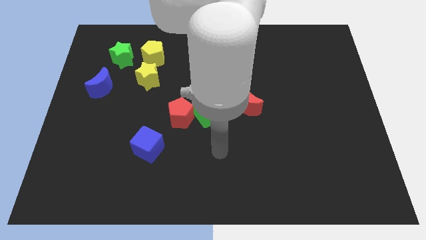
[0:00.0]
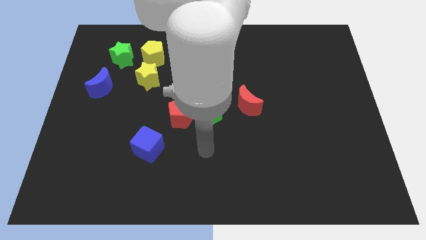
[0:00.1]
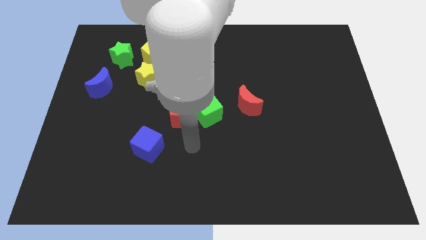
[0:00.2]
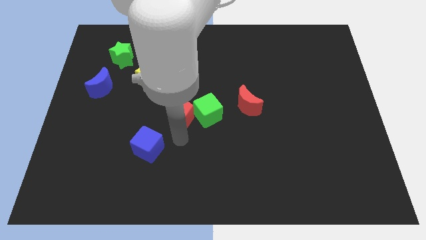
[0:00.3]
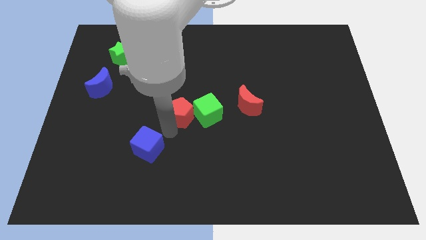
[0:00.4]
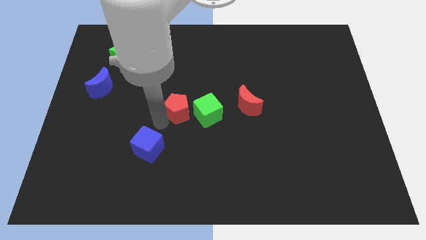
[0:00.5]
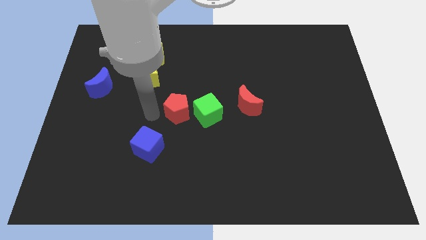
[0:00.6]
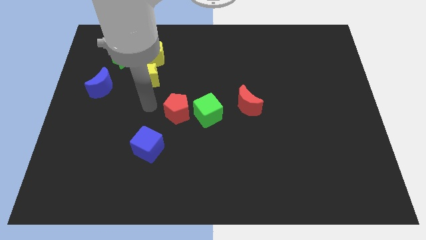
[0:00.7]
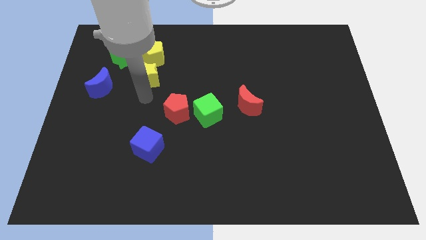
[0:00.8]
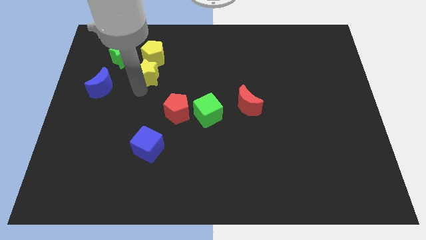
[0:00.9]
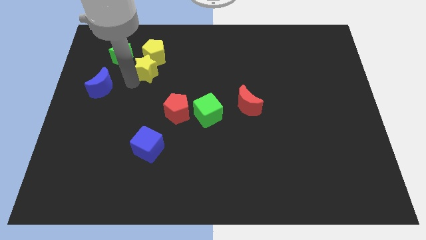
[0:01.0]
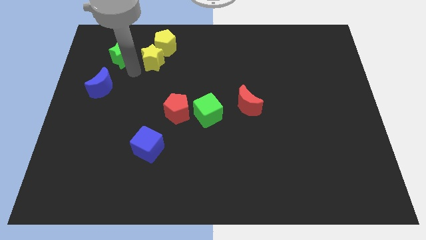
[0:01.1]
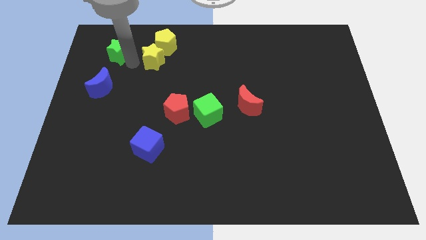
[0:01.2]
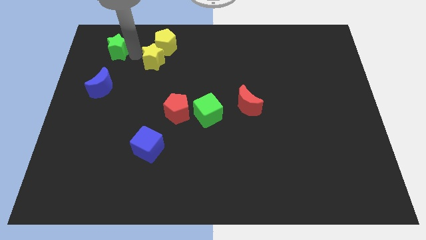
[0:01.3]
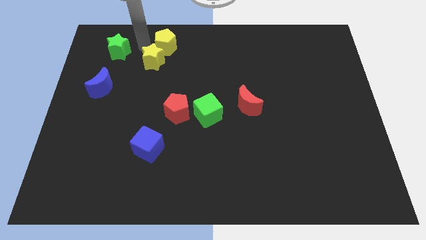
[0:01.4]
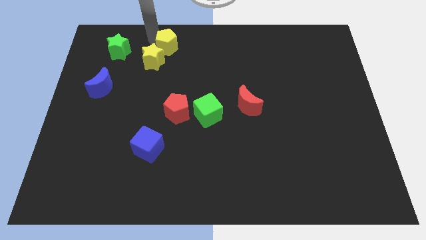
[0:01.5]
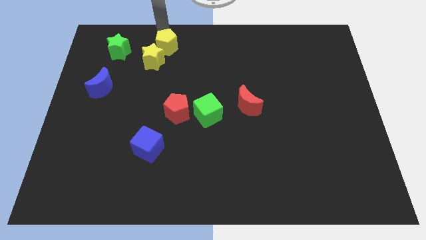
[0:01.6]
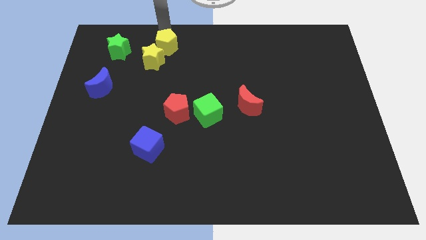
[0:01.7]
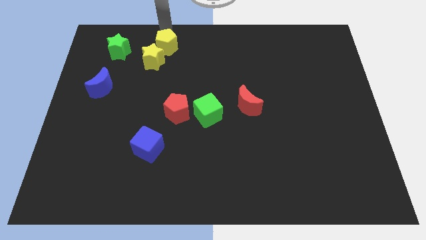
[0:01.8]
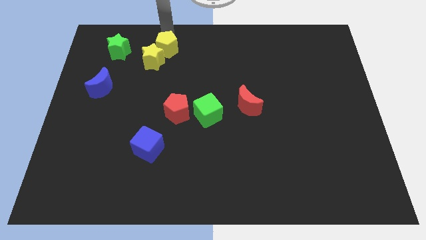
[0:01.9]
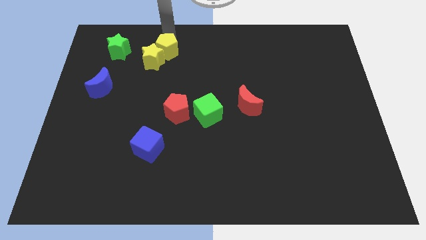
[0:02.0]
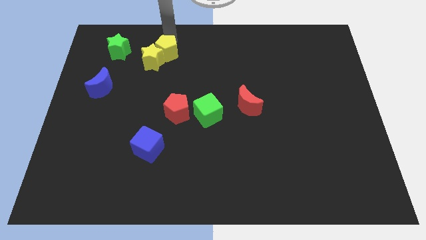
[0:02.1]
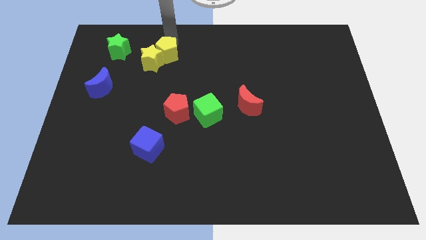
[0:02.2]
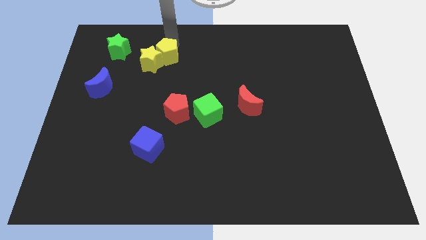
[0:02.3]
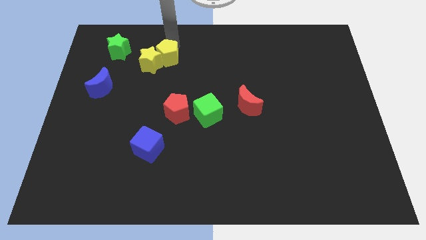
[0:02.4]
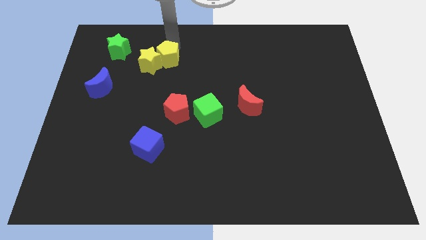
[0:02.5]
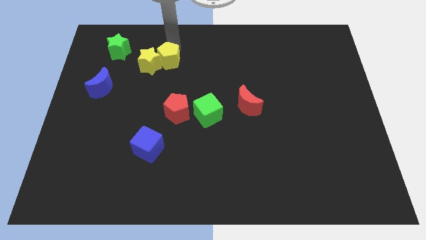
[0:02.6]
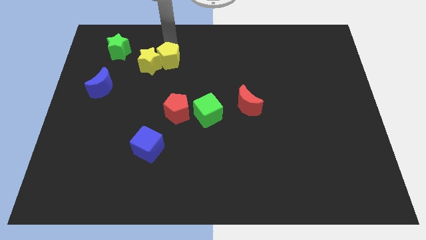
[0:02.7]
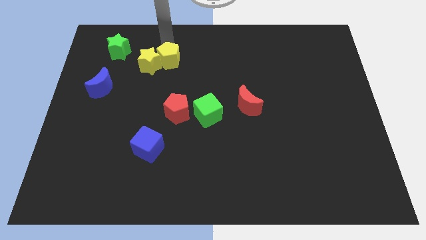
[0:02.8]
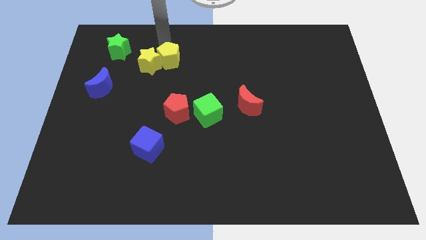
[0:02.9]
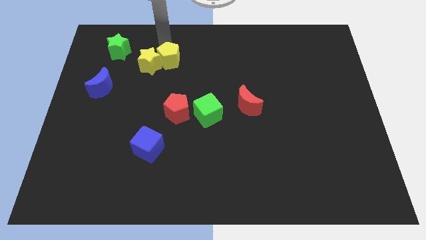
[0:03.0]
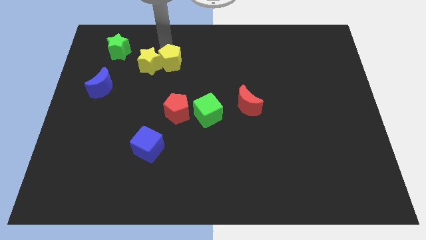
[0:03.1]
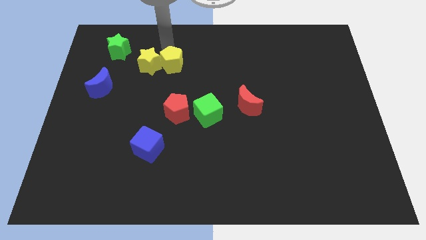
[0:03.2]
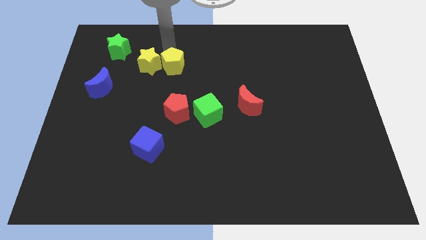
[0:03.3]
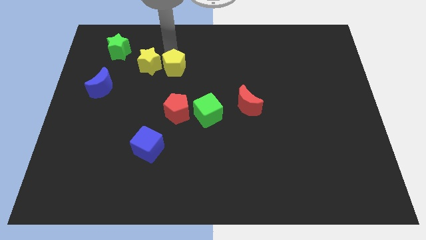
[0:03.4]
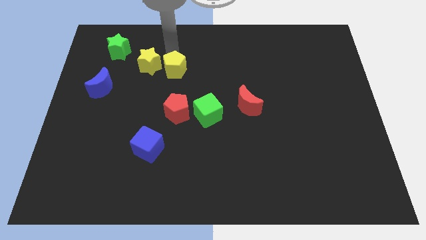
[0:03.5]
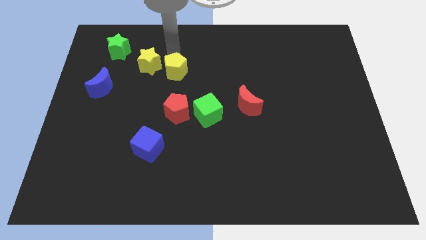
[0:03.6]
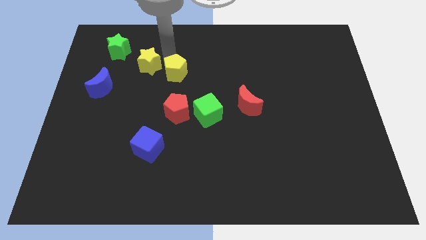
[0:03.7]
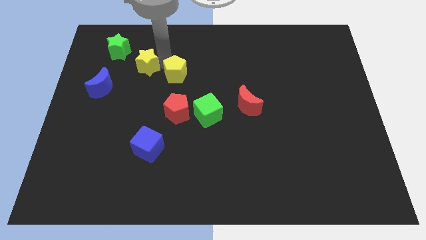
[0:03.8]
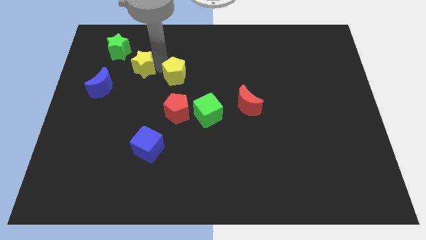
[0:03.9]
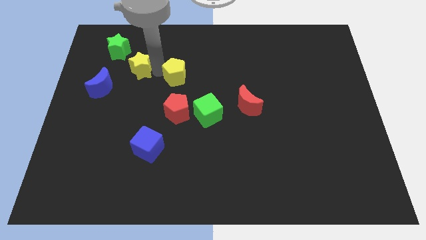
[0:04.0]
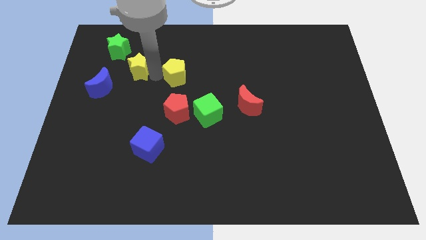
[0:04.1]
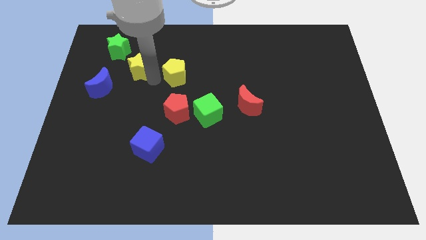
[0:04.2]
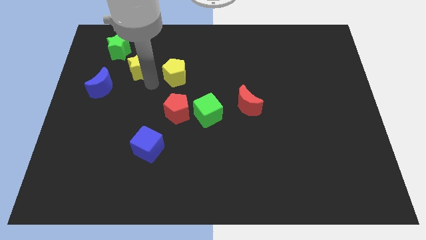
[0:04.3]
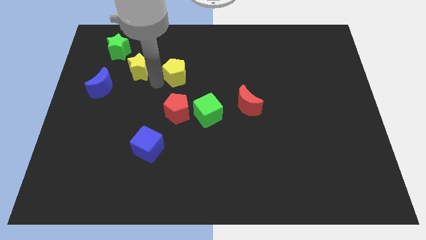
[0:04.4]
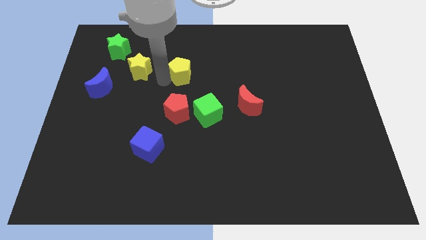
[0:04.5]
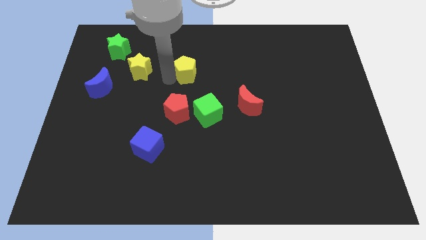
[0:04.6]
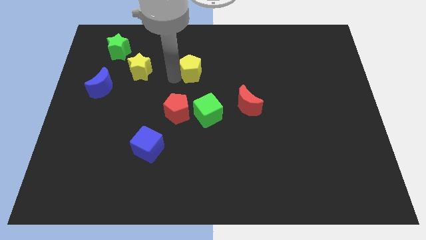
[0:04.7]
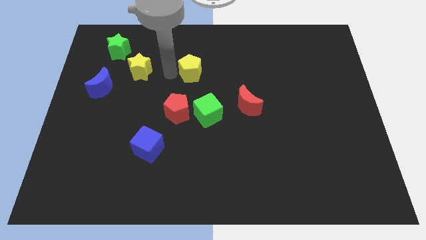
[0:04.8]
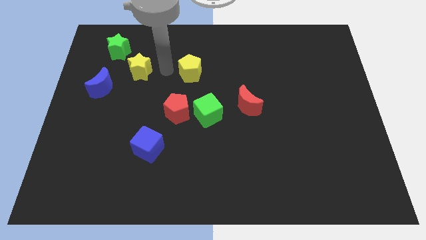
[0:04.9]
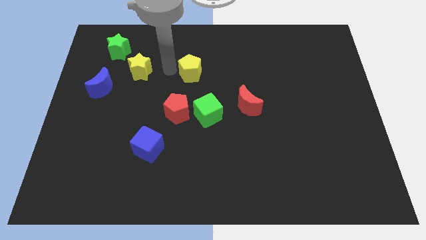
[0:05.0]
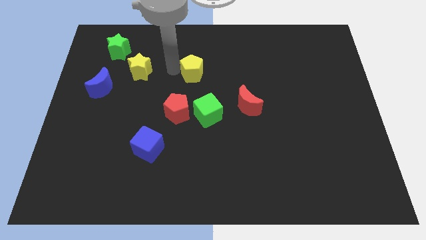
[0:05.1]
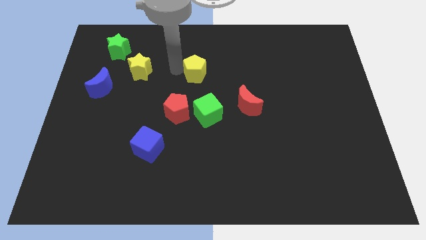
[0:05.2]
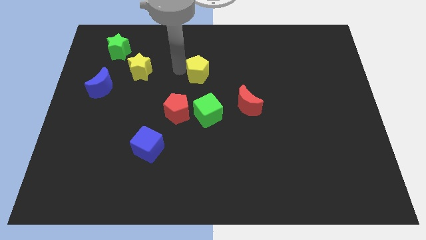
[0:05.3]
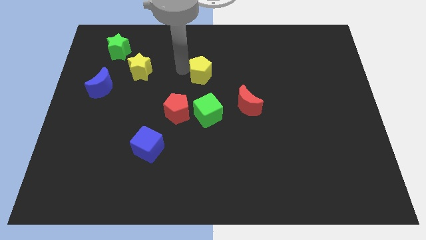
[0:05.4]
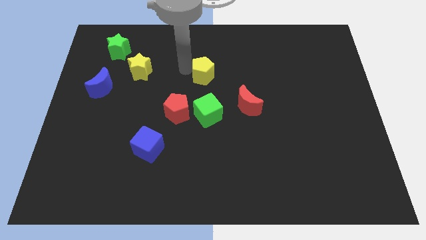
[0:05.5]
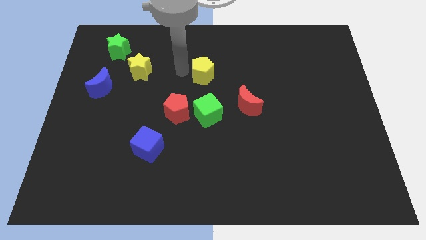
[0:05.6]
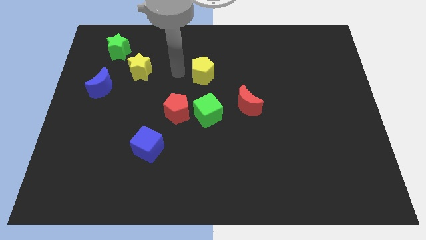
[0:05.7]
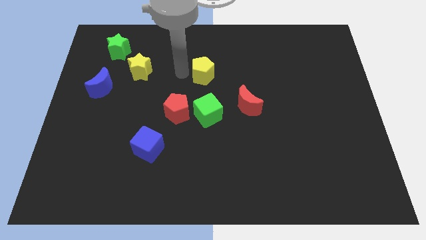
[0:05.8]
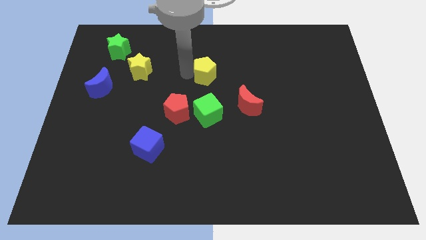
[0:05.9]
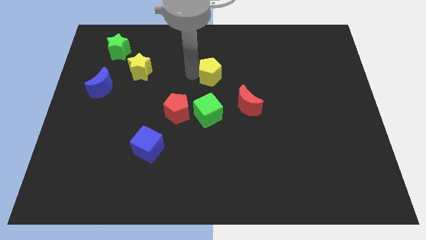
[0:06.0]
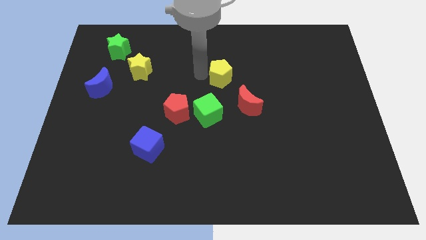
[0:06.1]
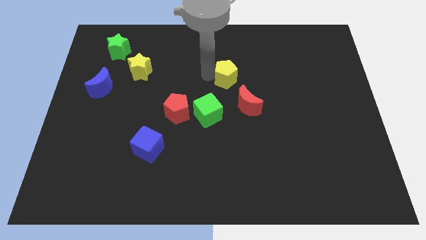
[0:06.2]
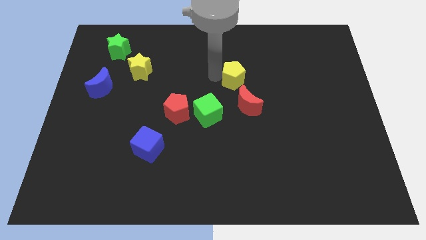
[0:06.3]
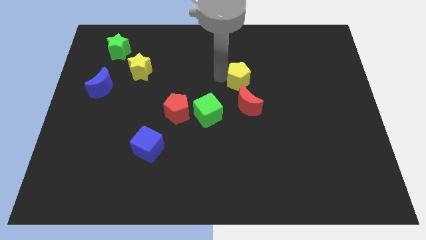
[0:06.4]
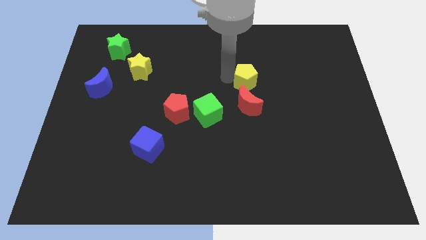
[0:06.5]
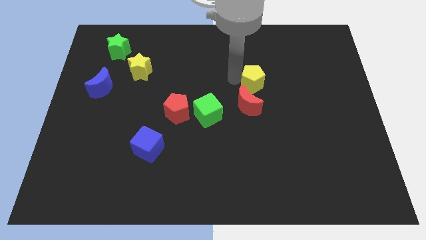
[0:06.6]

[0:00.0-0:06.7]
push the yellow pentagon diagonally up and to the right of the red moon

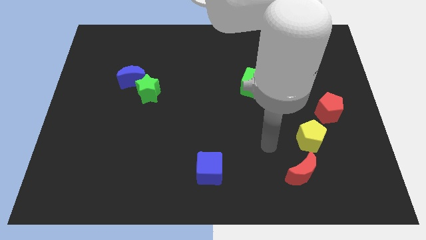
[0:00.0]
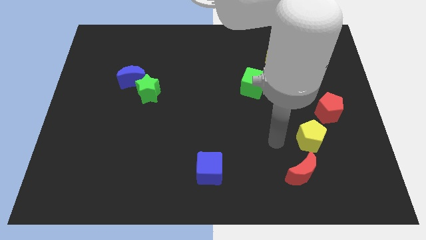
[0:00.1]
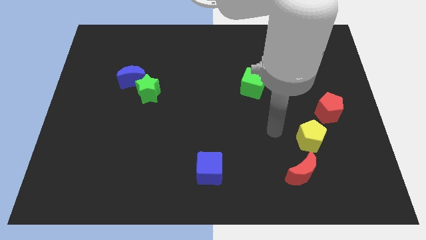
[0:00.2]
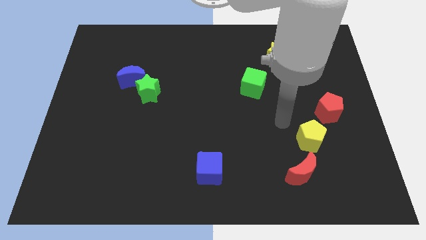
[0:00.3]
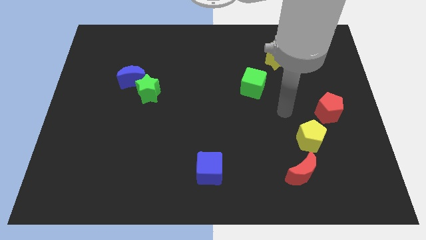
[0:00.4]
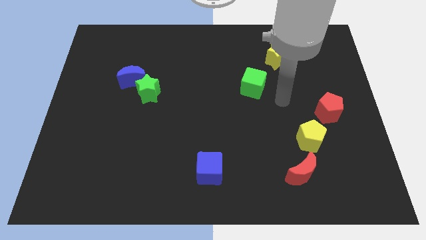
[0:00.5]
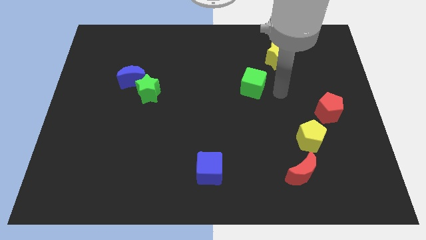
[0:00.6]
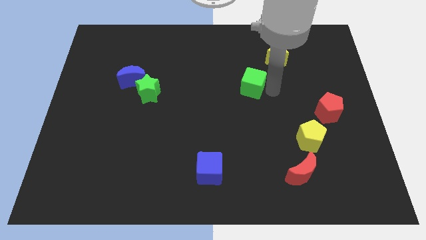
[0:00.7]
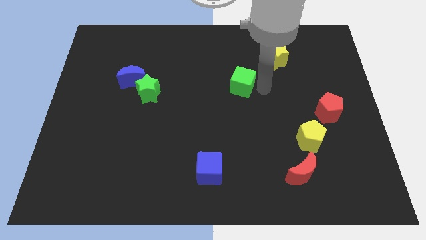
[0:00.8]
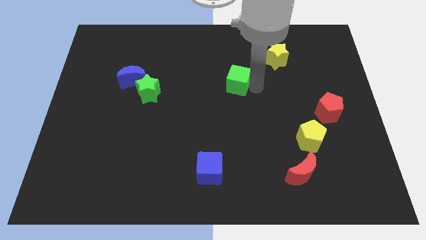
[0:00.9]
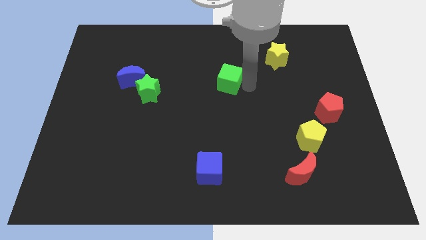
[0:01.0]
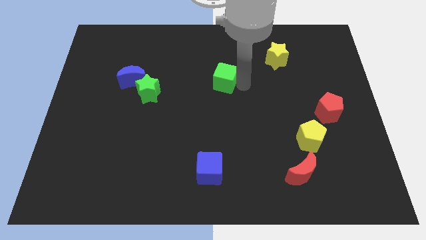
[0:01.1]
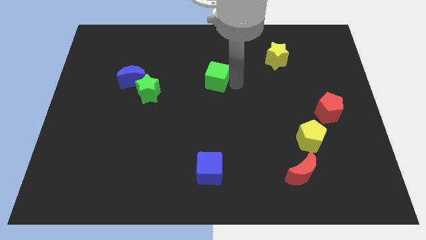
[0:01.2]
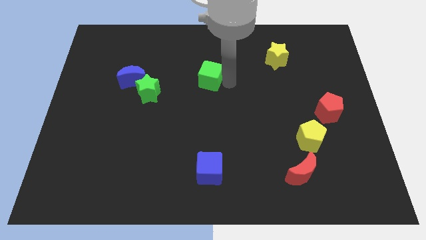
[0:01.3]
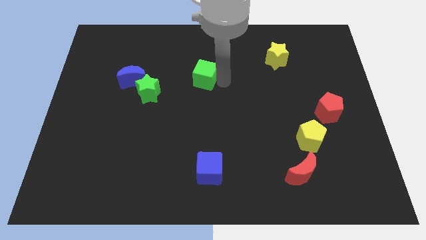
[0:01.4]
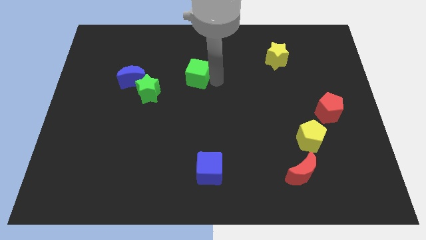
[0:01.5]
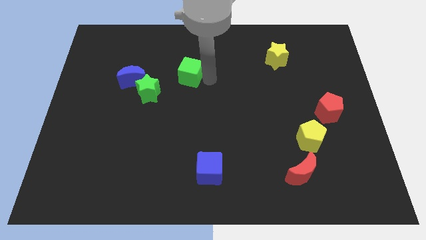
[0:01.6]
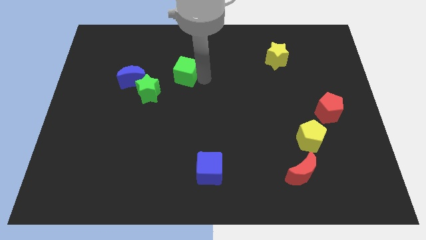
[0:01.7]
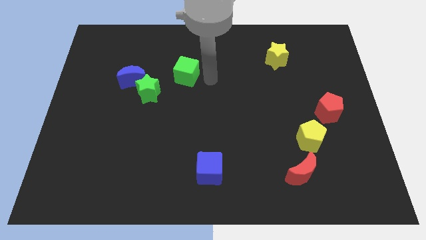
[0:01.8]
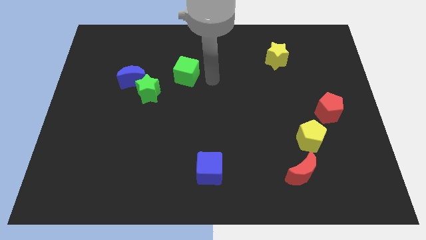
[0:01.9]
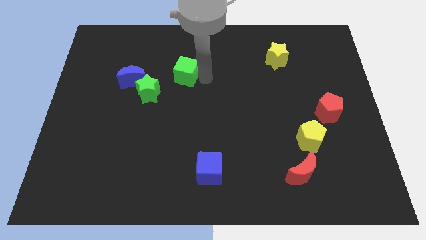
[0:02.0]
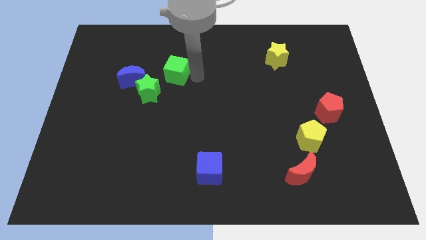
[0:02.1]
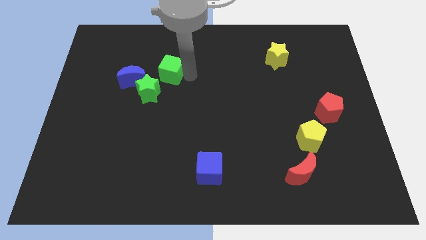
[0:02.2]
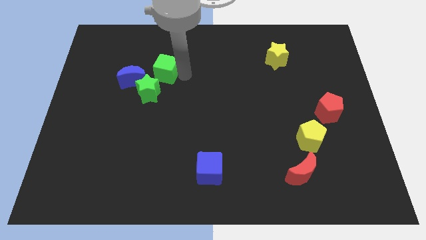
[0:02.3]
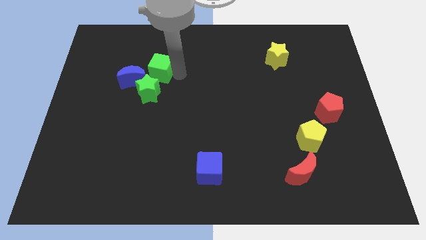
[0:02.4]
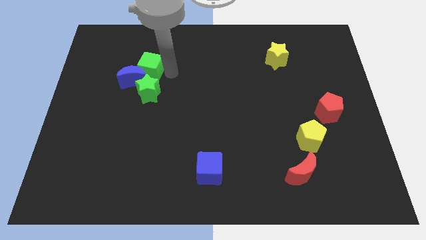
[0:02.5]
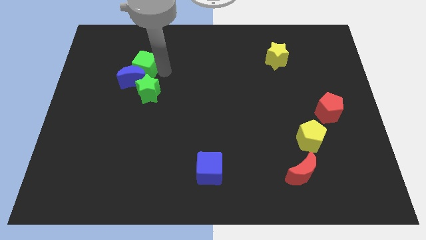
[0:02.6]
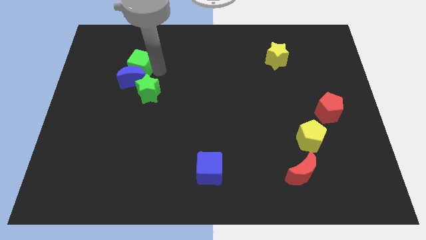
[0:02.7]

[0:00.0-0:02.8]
push the green cube to the top left of the blue moon
